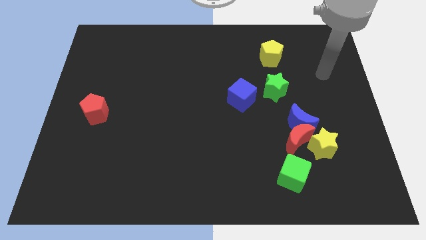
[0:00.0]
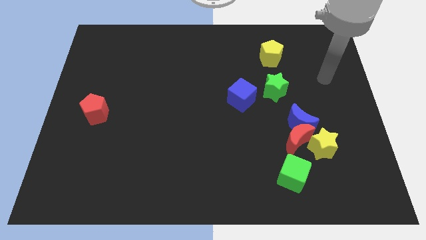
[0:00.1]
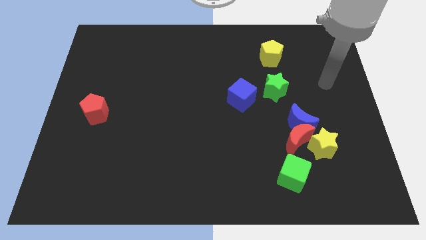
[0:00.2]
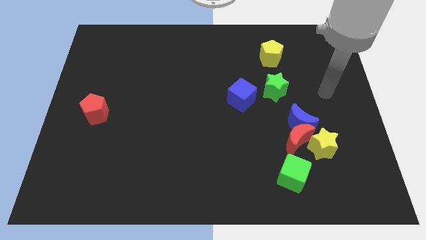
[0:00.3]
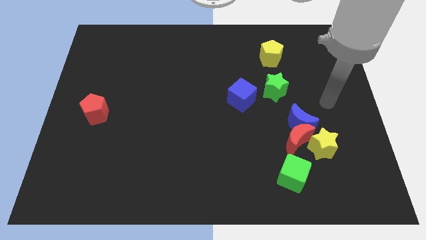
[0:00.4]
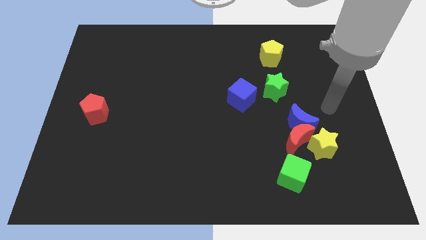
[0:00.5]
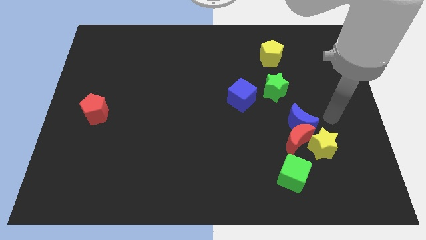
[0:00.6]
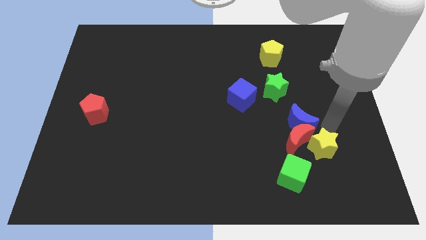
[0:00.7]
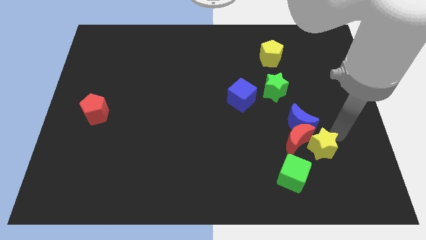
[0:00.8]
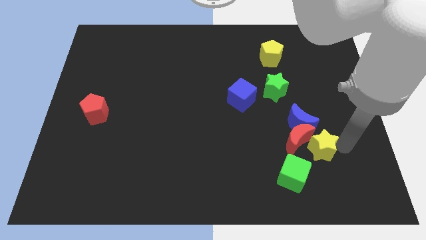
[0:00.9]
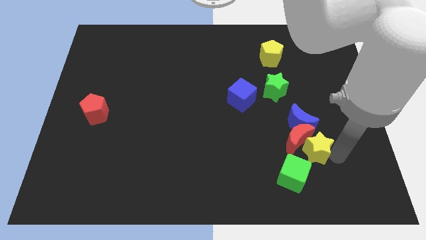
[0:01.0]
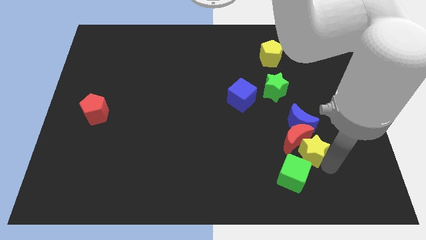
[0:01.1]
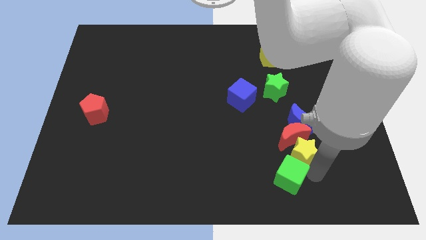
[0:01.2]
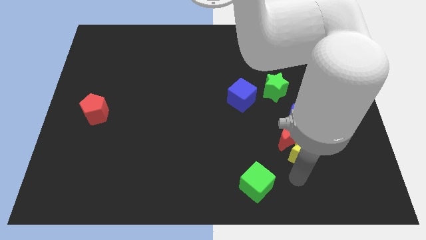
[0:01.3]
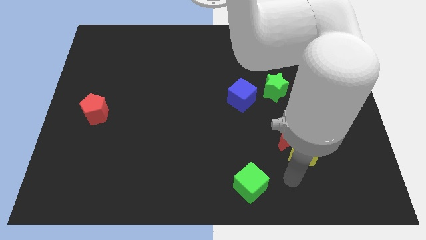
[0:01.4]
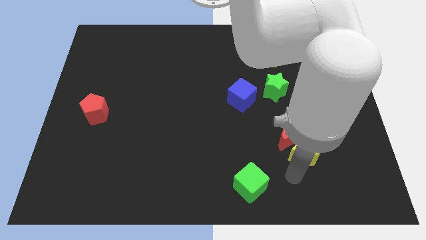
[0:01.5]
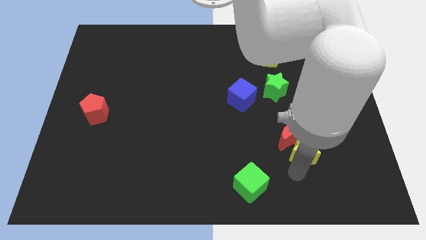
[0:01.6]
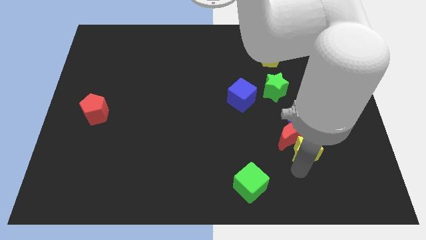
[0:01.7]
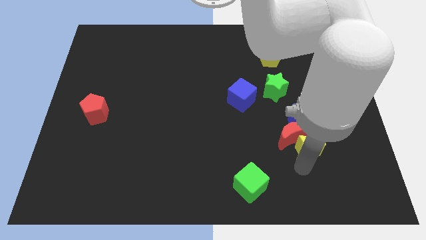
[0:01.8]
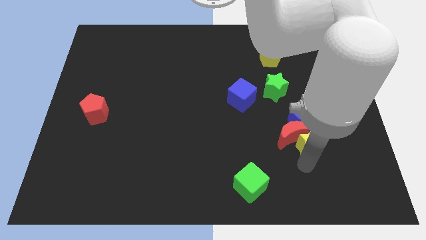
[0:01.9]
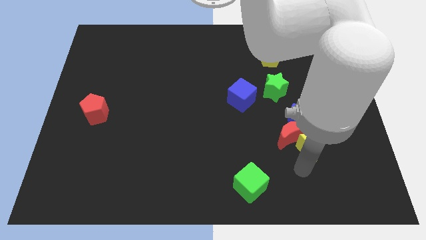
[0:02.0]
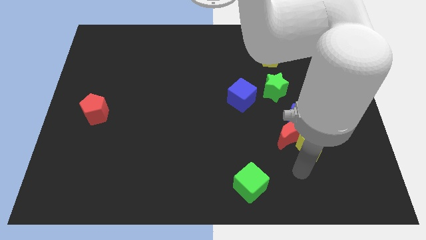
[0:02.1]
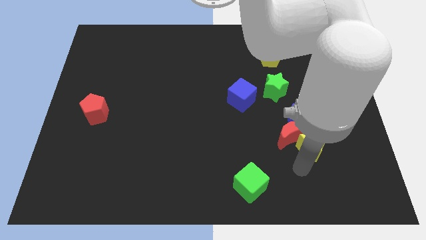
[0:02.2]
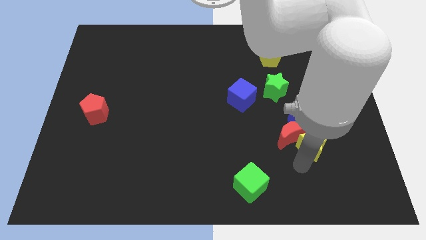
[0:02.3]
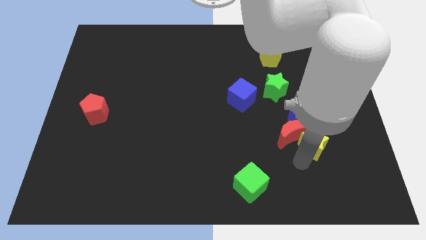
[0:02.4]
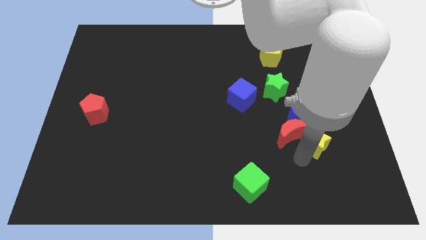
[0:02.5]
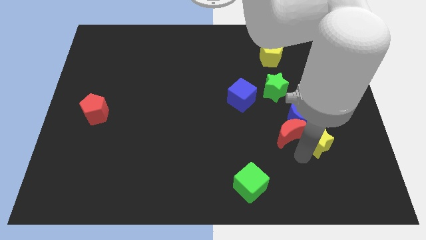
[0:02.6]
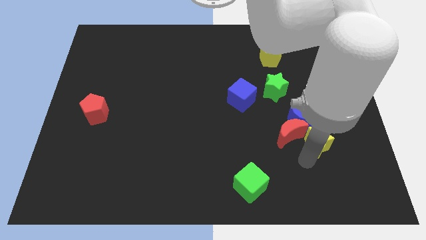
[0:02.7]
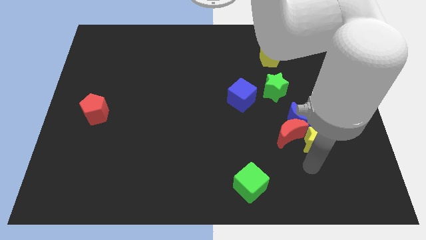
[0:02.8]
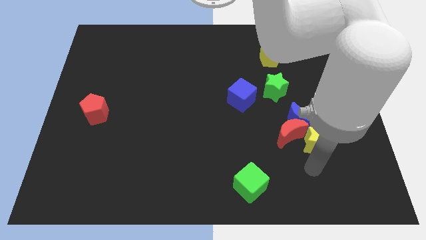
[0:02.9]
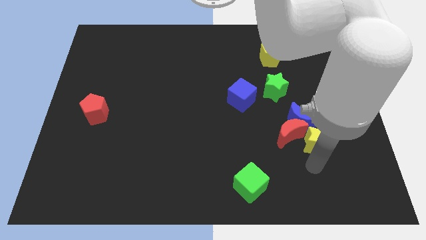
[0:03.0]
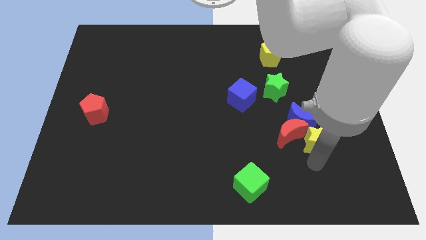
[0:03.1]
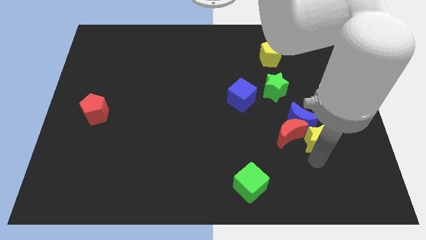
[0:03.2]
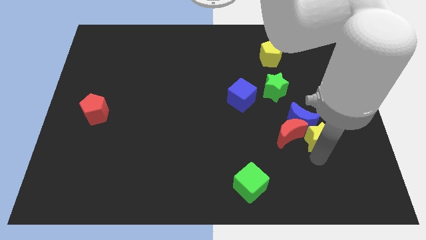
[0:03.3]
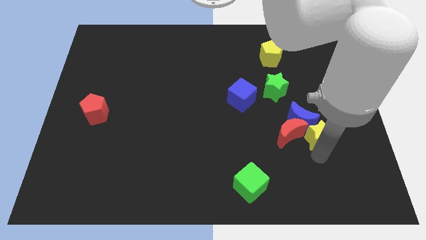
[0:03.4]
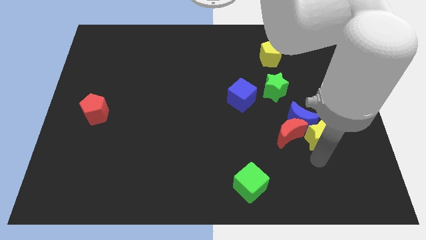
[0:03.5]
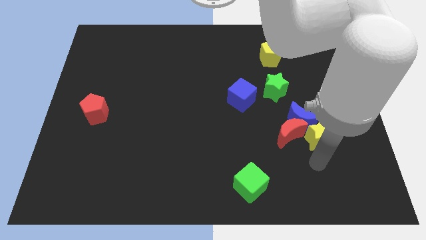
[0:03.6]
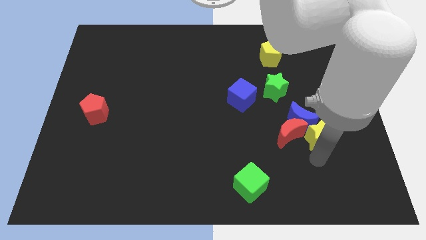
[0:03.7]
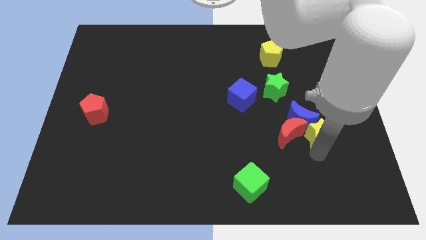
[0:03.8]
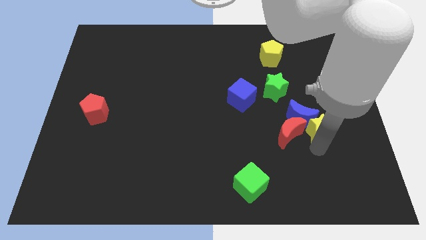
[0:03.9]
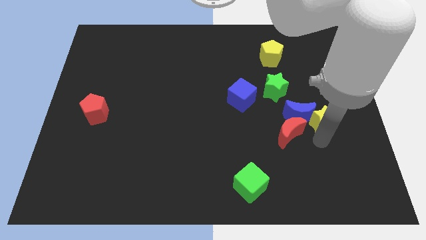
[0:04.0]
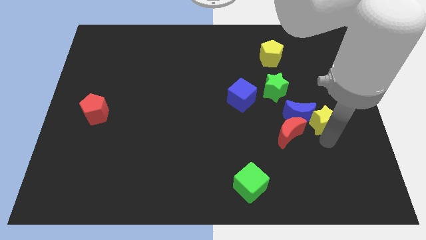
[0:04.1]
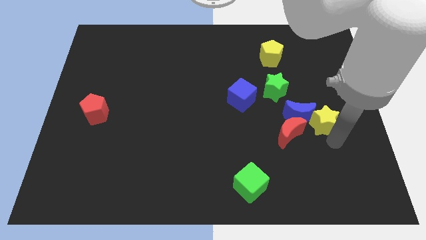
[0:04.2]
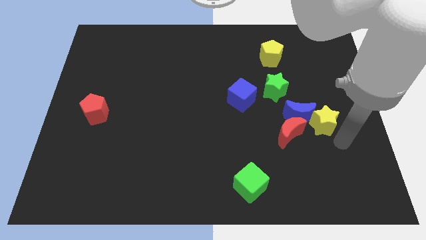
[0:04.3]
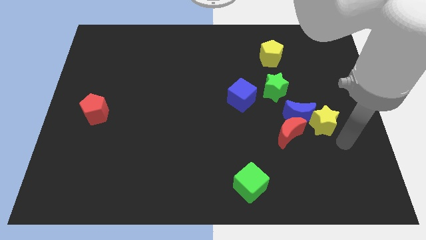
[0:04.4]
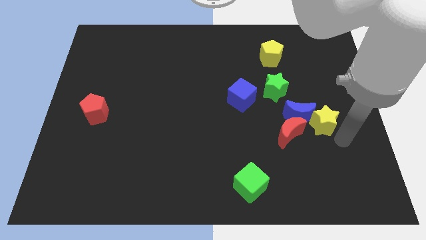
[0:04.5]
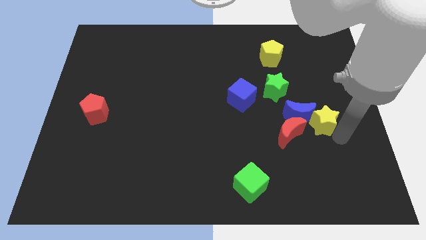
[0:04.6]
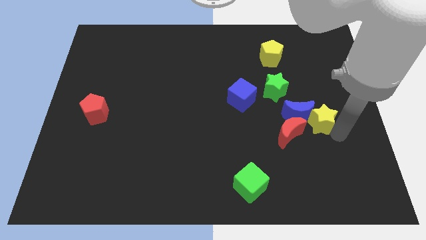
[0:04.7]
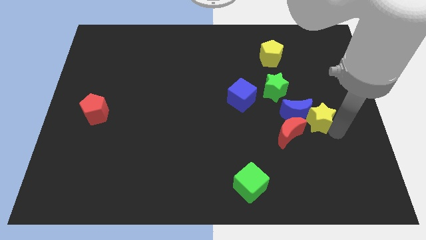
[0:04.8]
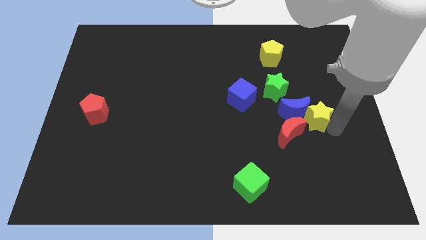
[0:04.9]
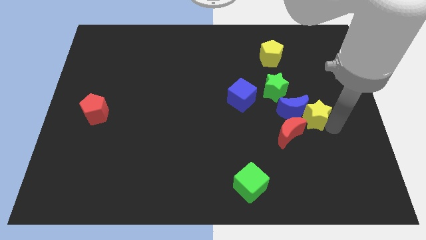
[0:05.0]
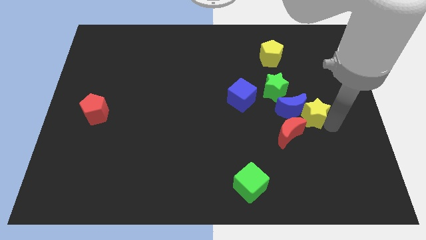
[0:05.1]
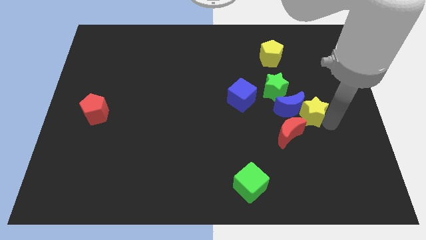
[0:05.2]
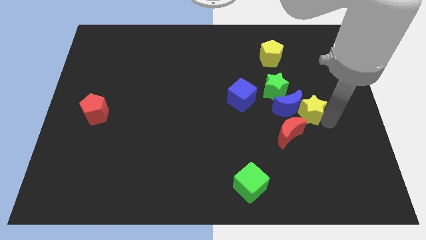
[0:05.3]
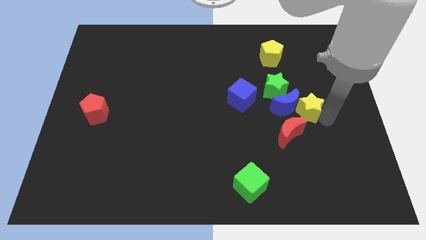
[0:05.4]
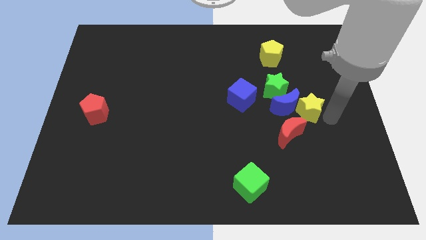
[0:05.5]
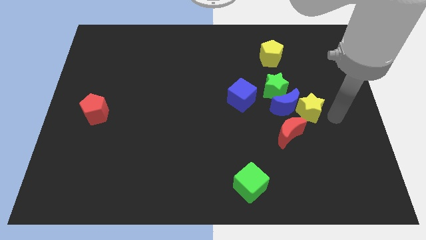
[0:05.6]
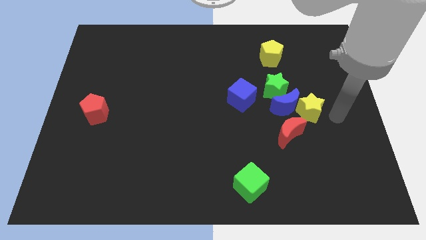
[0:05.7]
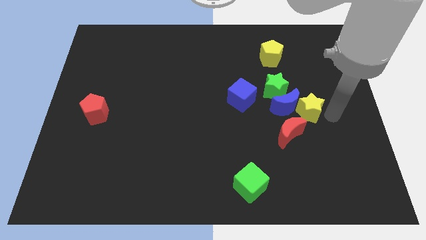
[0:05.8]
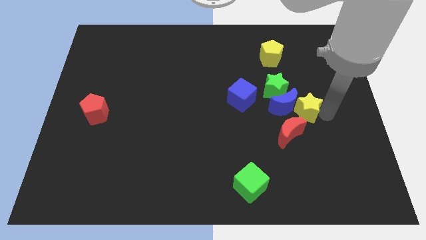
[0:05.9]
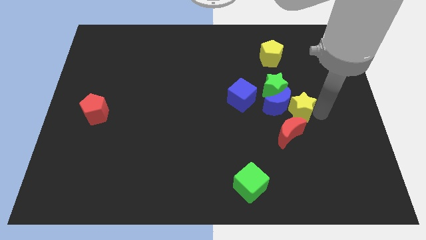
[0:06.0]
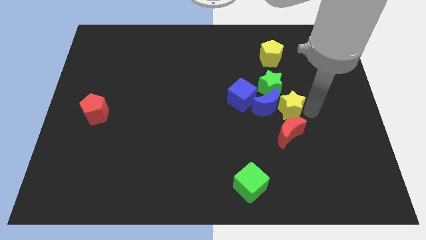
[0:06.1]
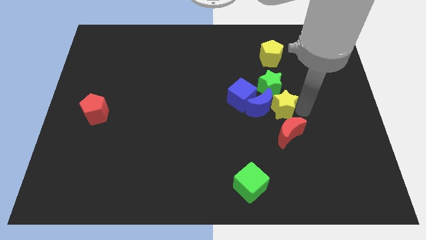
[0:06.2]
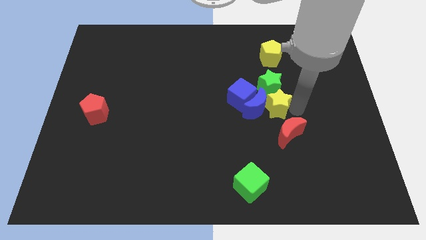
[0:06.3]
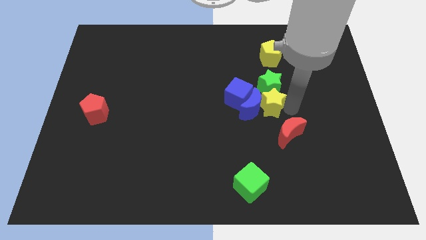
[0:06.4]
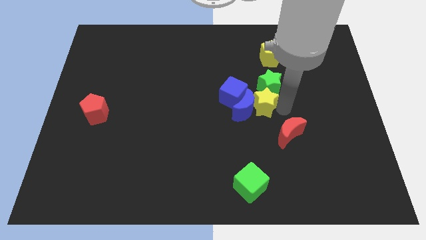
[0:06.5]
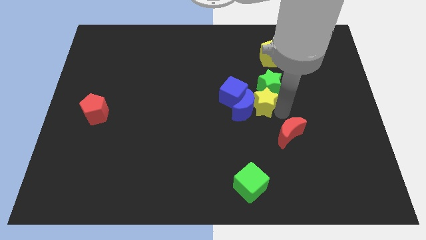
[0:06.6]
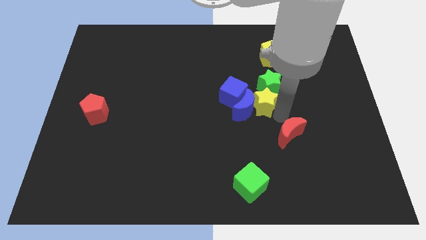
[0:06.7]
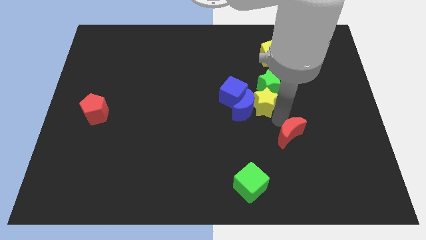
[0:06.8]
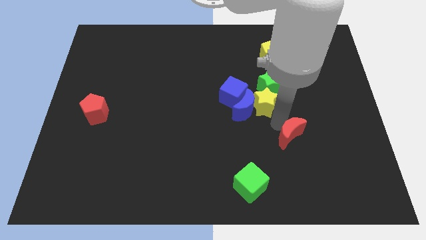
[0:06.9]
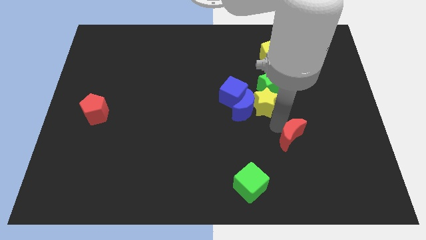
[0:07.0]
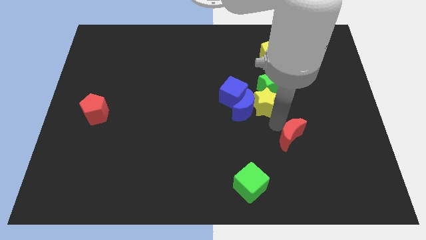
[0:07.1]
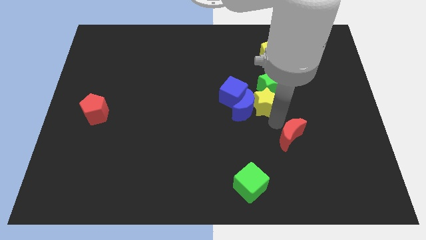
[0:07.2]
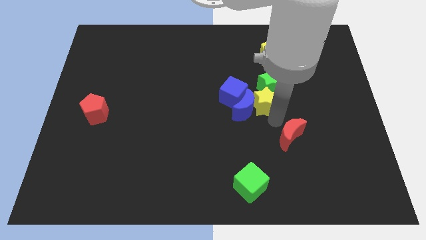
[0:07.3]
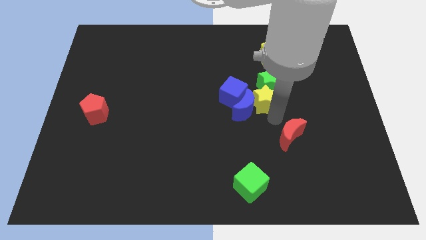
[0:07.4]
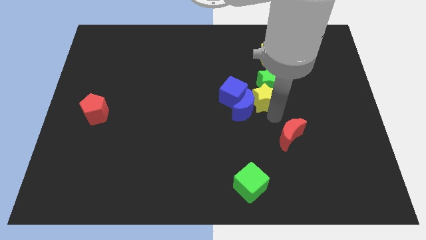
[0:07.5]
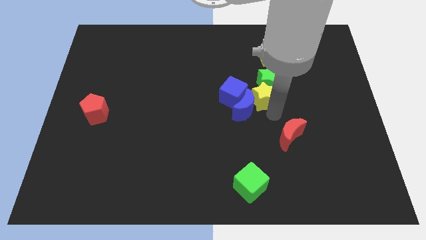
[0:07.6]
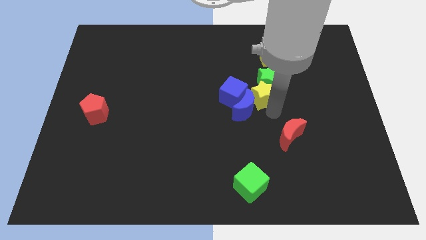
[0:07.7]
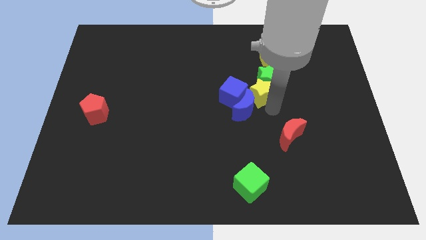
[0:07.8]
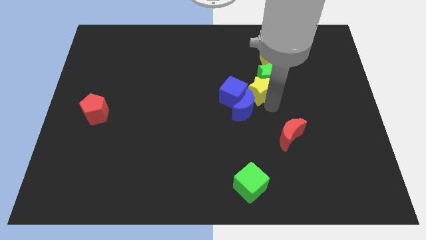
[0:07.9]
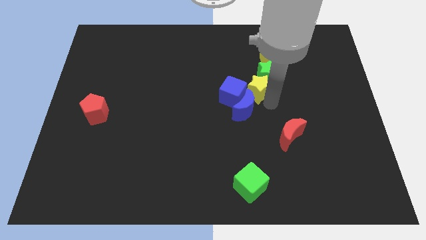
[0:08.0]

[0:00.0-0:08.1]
slide the yellow star upwards and left diagonally
